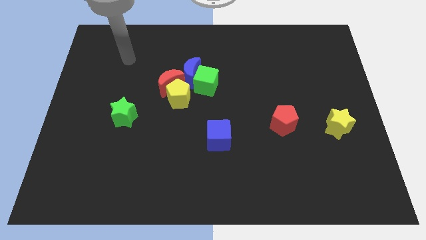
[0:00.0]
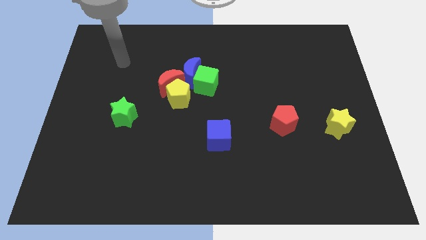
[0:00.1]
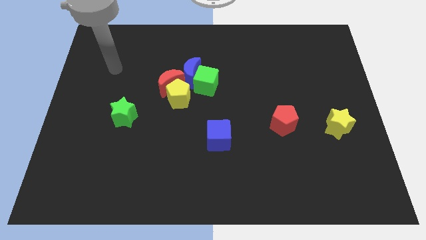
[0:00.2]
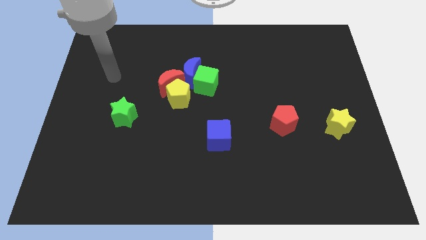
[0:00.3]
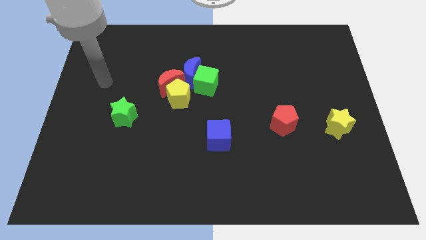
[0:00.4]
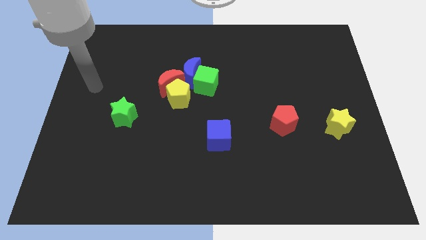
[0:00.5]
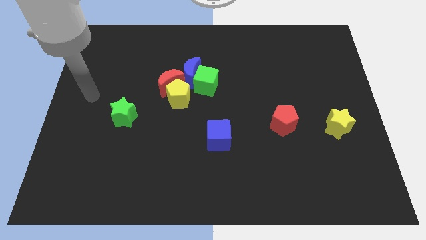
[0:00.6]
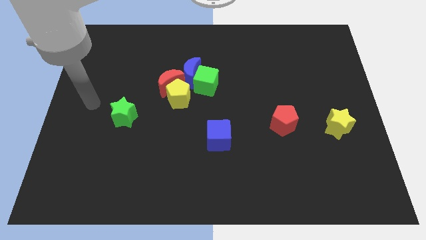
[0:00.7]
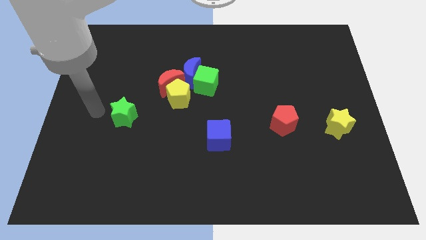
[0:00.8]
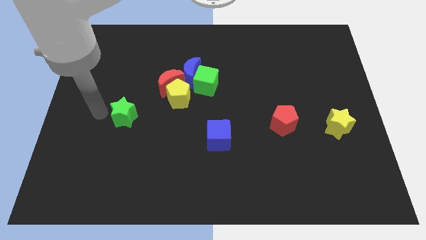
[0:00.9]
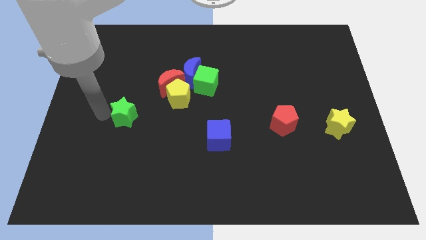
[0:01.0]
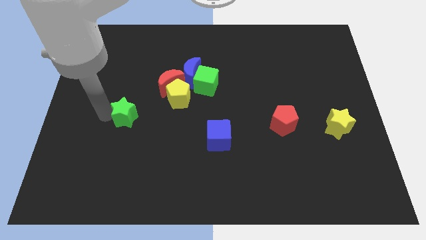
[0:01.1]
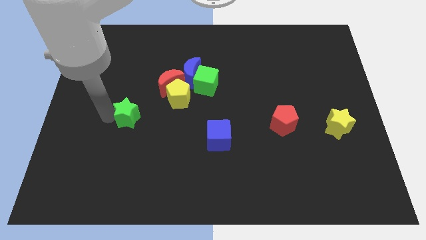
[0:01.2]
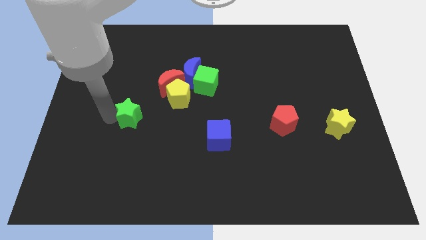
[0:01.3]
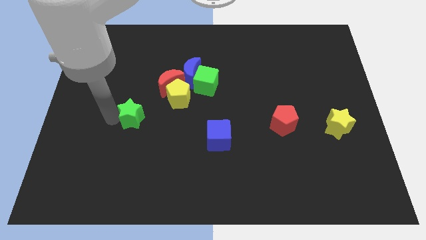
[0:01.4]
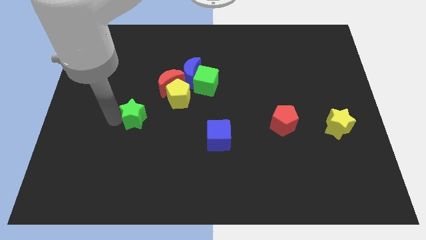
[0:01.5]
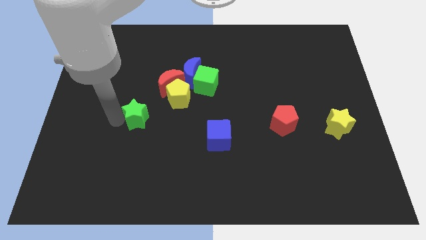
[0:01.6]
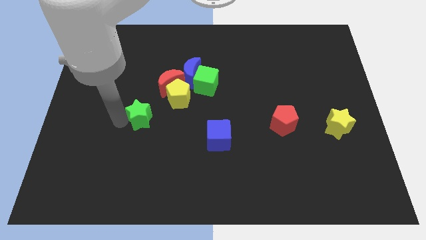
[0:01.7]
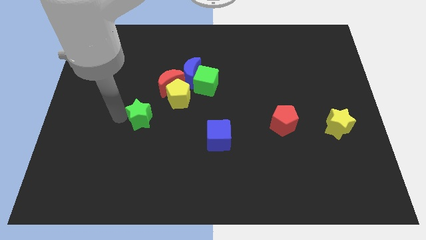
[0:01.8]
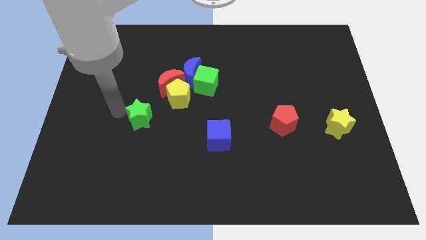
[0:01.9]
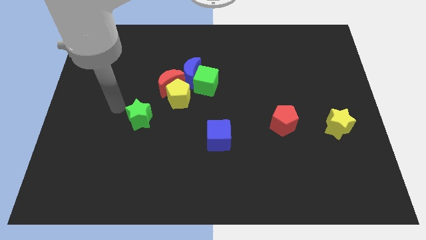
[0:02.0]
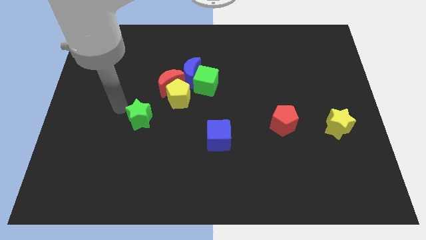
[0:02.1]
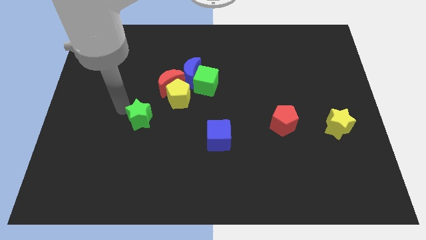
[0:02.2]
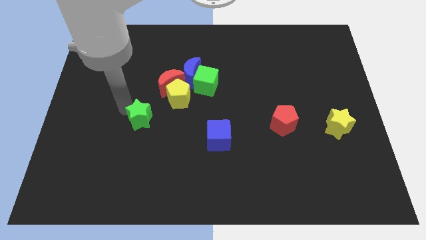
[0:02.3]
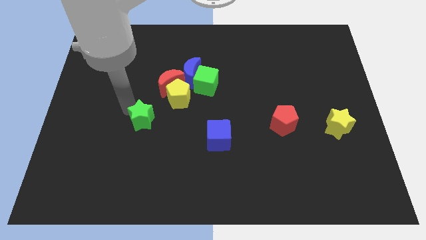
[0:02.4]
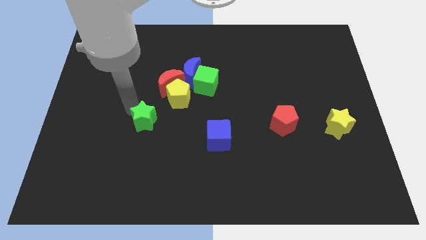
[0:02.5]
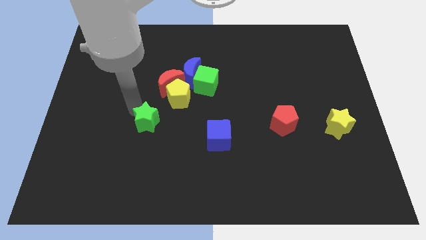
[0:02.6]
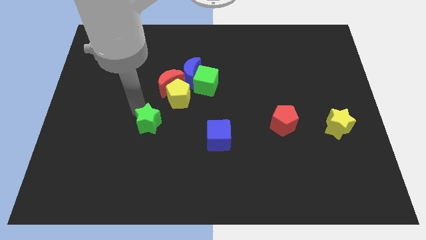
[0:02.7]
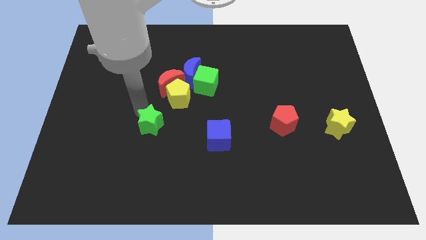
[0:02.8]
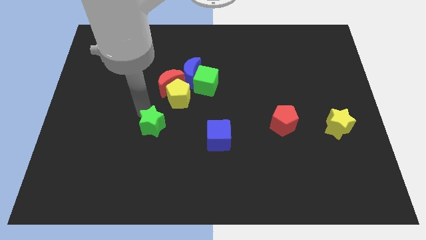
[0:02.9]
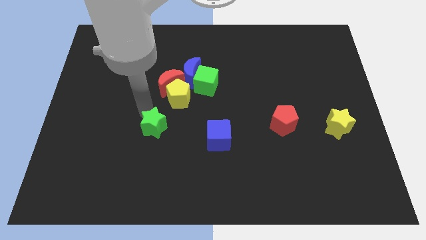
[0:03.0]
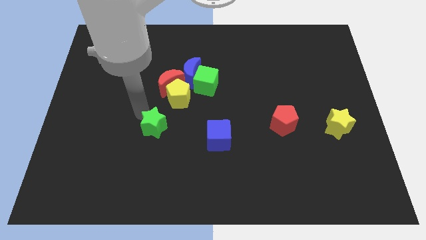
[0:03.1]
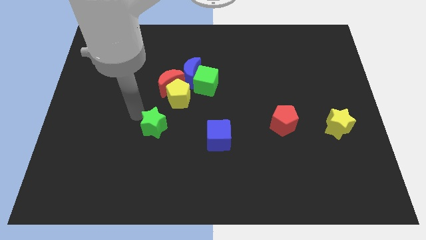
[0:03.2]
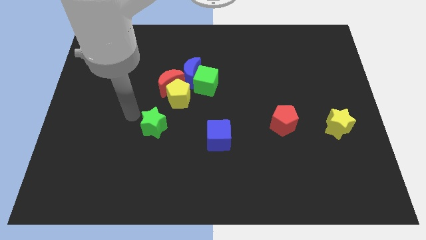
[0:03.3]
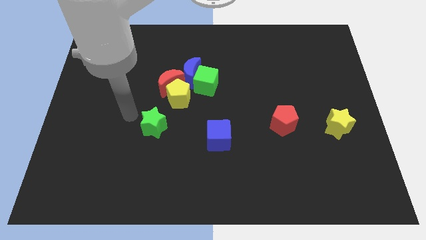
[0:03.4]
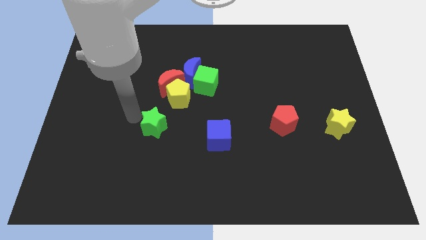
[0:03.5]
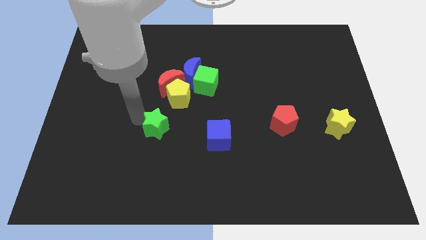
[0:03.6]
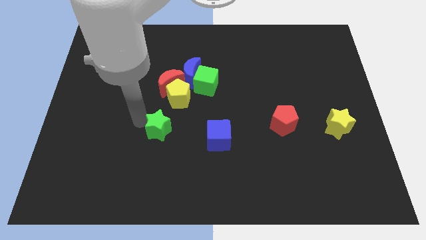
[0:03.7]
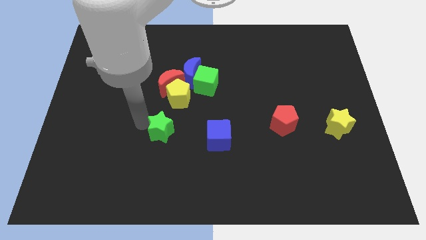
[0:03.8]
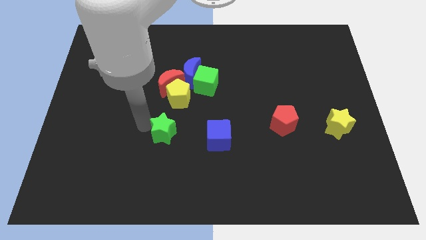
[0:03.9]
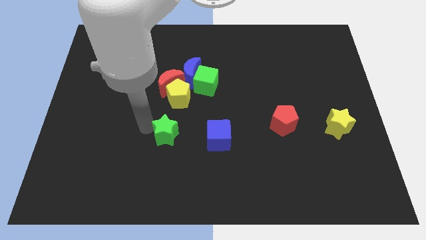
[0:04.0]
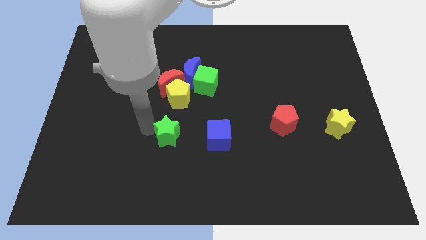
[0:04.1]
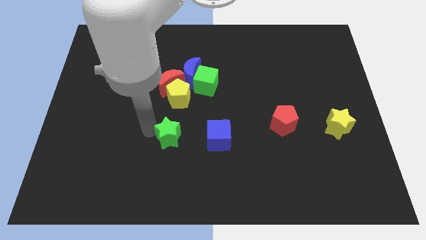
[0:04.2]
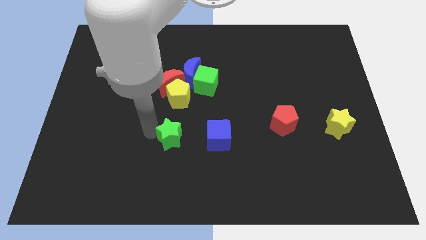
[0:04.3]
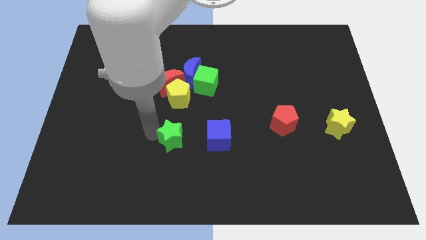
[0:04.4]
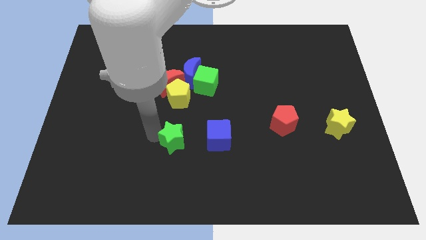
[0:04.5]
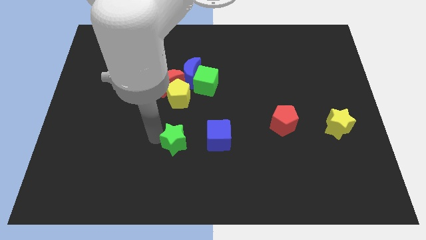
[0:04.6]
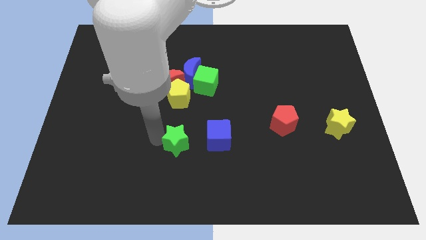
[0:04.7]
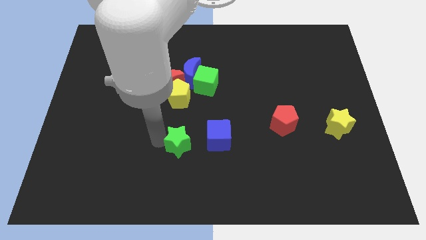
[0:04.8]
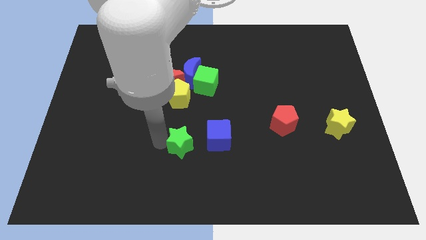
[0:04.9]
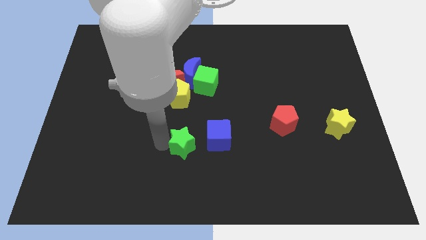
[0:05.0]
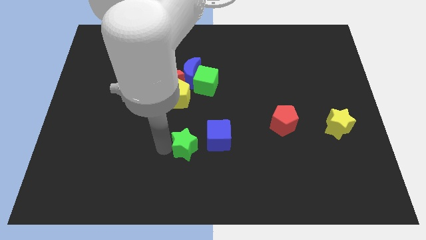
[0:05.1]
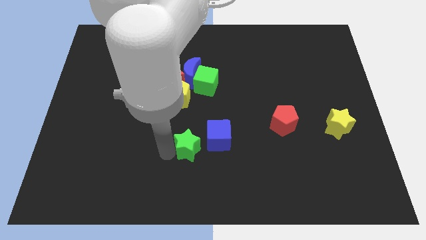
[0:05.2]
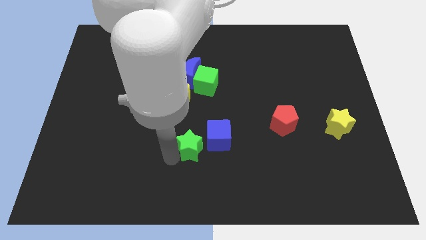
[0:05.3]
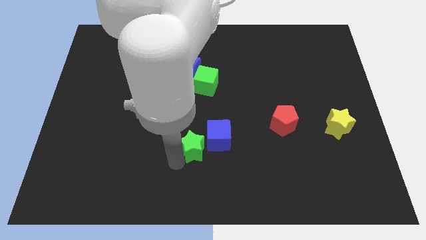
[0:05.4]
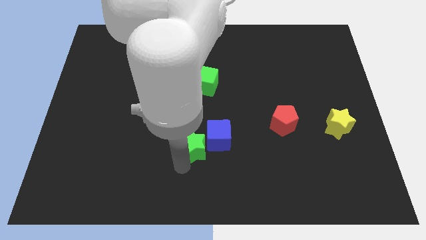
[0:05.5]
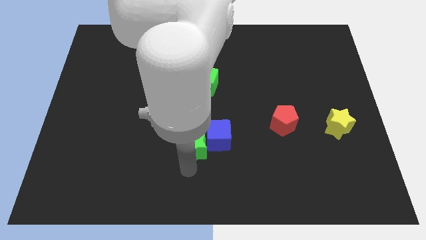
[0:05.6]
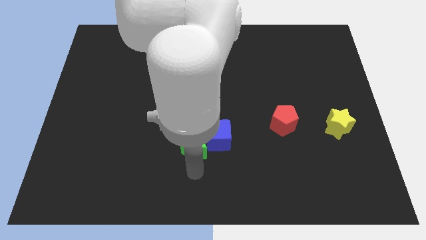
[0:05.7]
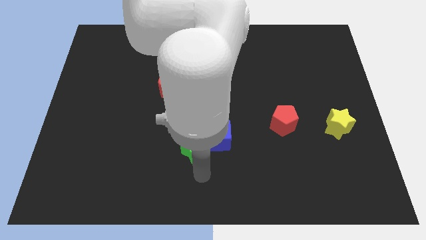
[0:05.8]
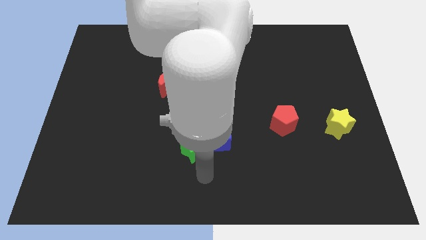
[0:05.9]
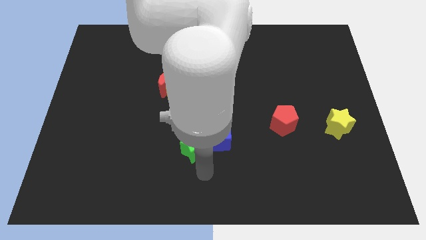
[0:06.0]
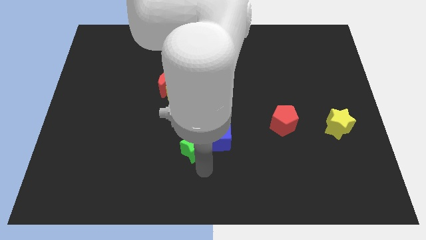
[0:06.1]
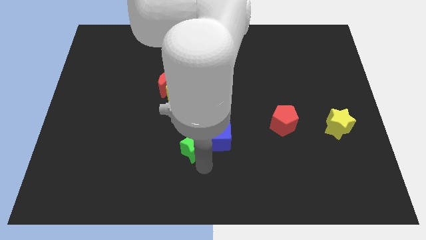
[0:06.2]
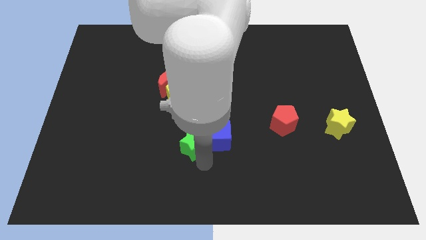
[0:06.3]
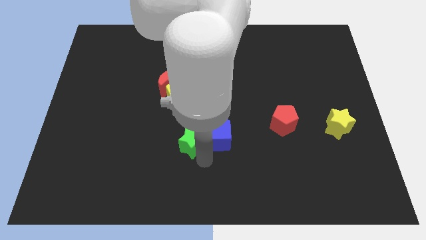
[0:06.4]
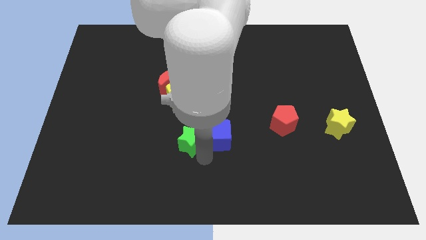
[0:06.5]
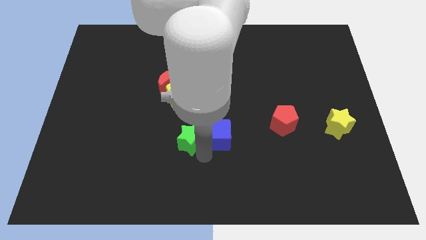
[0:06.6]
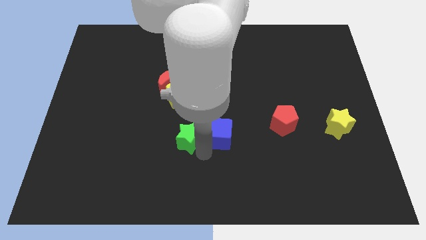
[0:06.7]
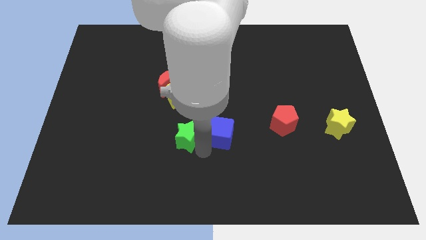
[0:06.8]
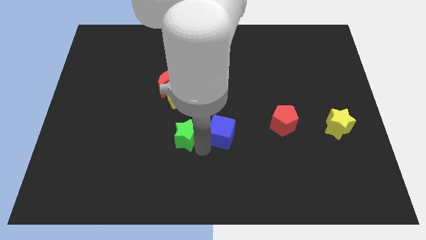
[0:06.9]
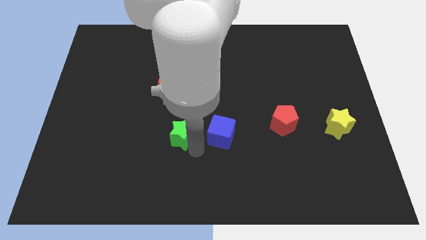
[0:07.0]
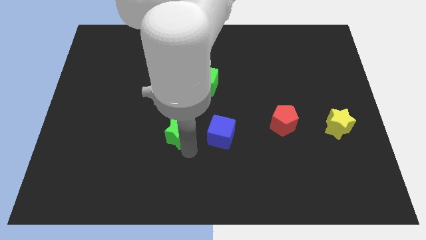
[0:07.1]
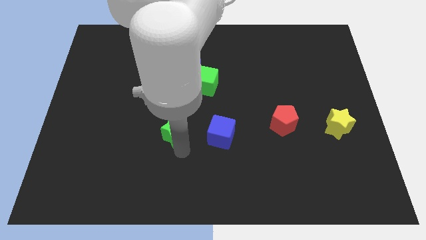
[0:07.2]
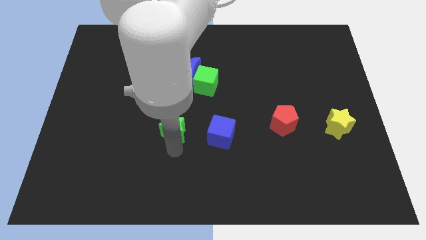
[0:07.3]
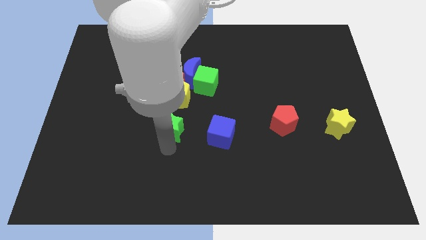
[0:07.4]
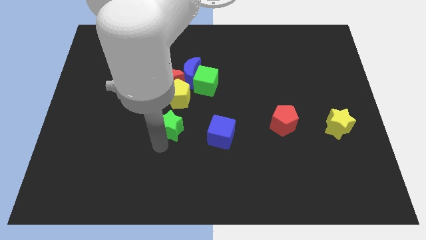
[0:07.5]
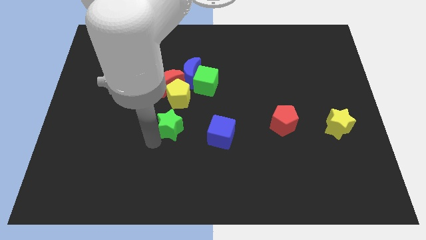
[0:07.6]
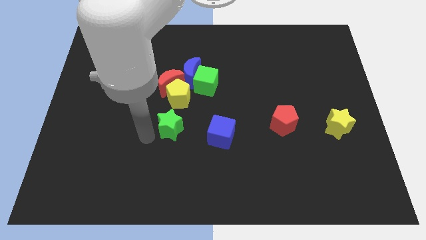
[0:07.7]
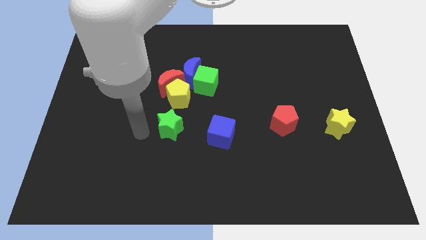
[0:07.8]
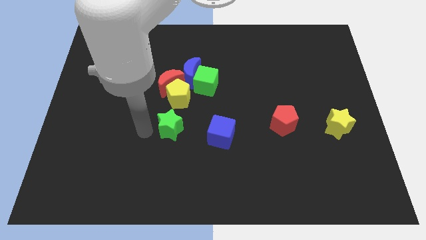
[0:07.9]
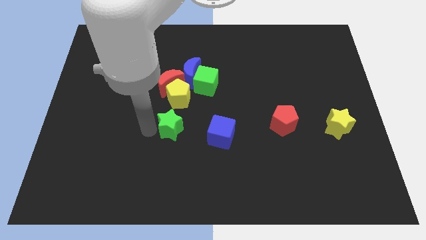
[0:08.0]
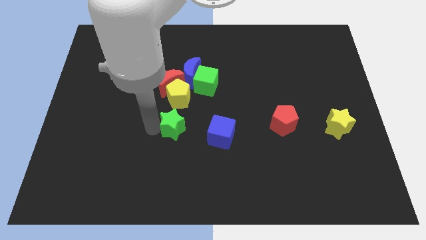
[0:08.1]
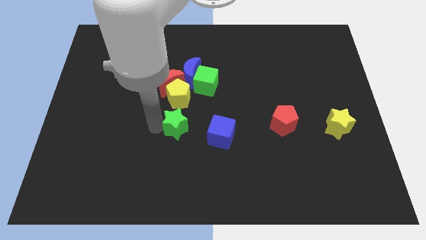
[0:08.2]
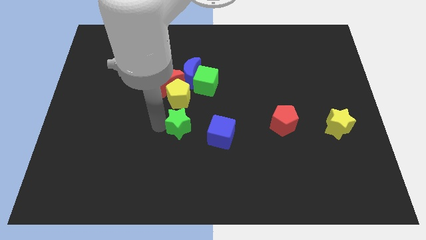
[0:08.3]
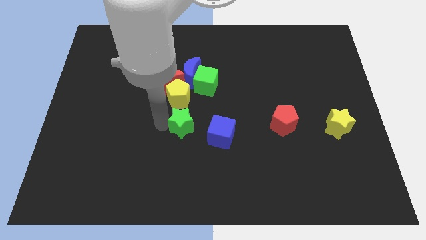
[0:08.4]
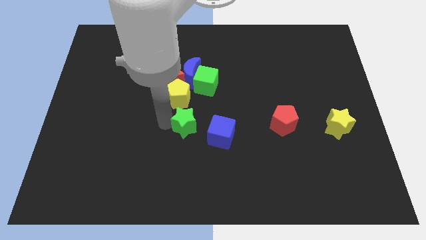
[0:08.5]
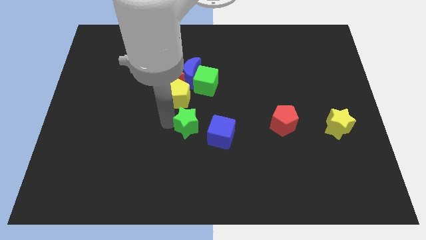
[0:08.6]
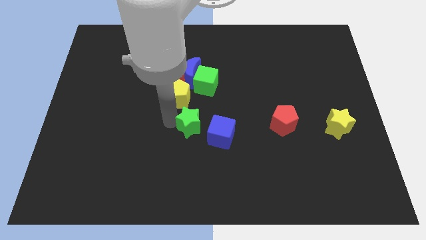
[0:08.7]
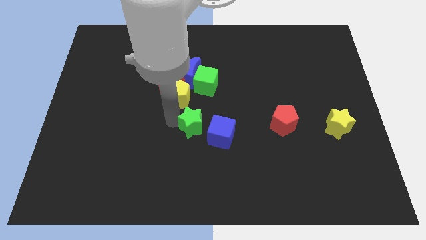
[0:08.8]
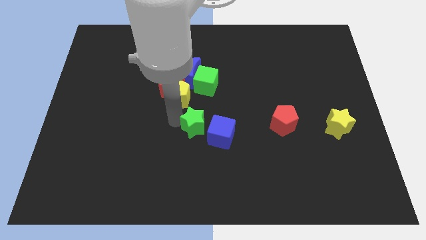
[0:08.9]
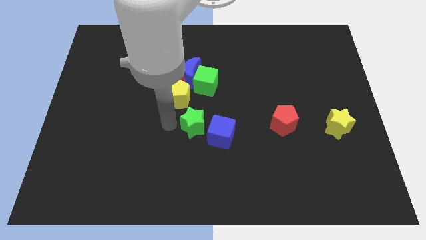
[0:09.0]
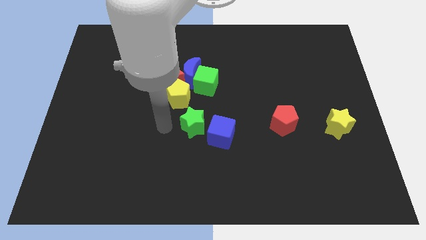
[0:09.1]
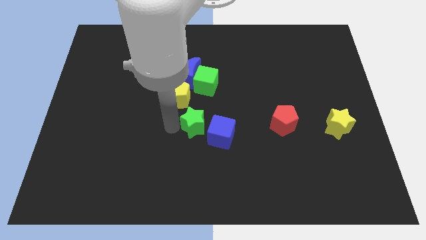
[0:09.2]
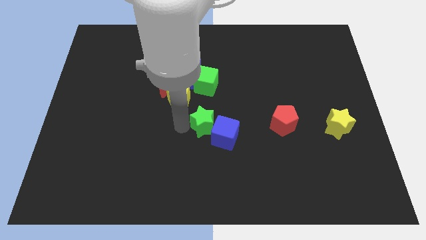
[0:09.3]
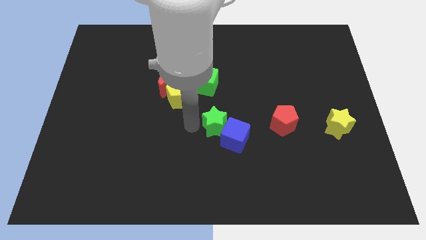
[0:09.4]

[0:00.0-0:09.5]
move the green star to the left of the red pentagon
